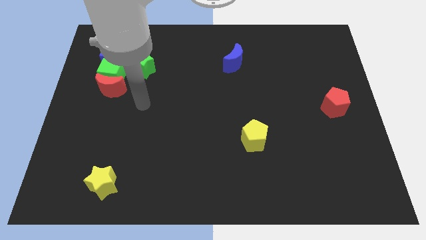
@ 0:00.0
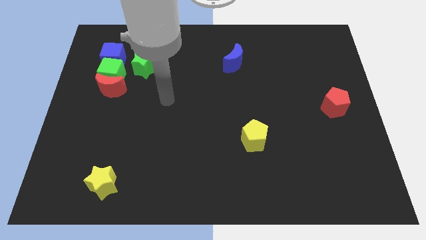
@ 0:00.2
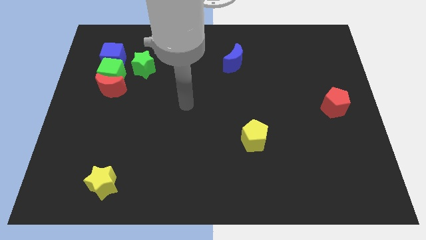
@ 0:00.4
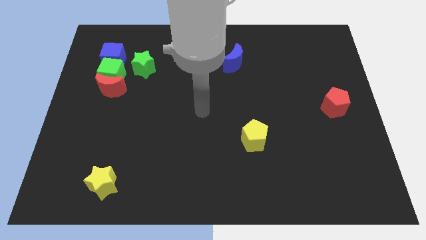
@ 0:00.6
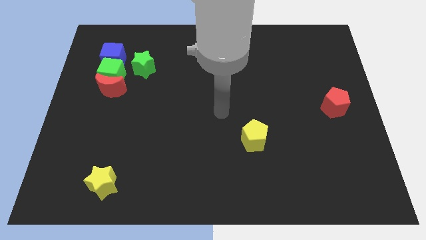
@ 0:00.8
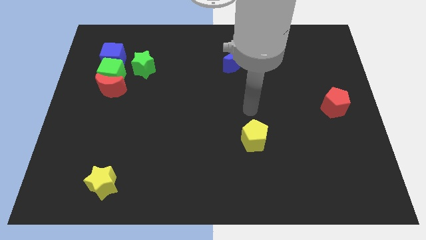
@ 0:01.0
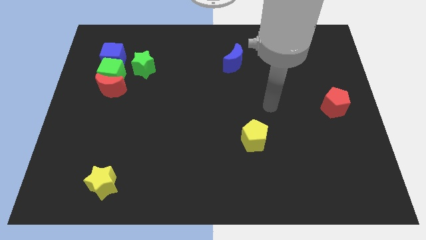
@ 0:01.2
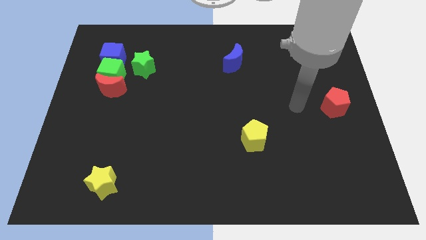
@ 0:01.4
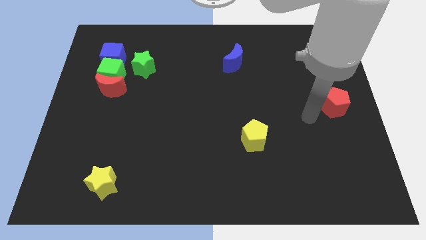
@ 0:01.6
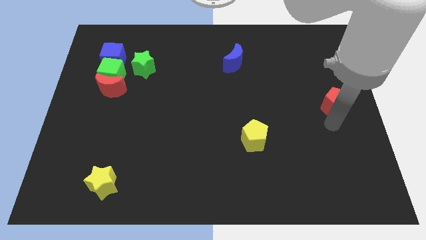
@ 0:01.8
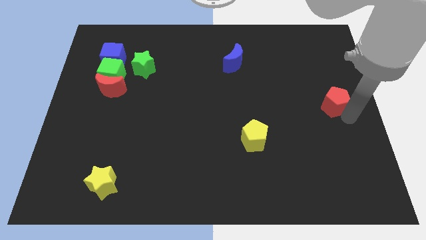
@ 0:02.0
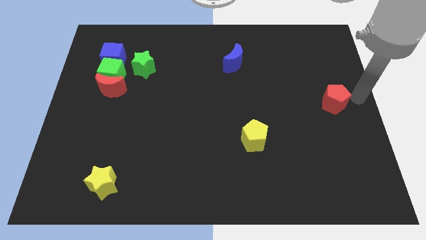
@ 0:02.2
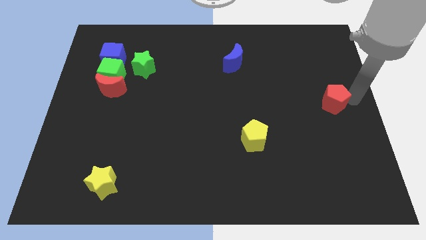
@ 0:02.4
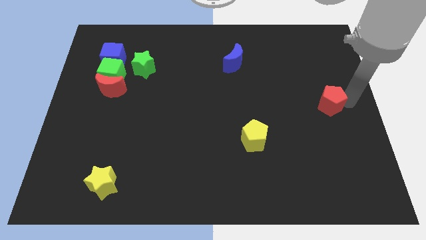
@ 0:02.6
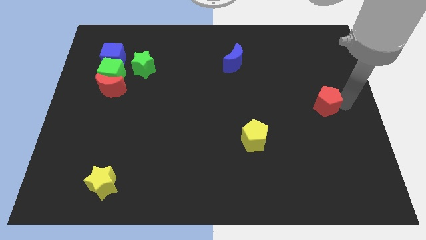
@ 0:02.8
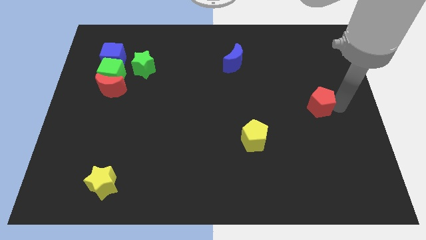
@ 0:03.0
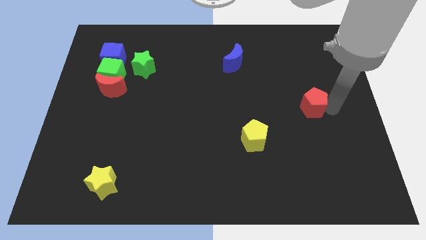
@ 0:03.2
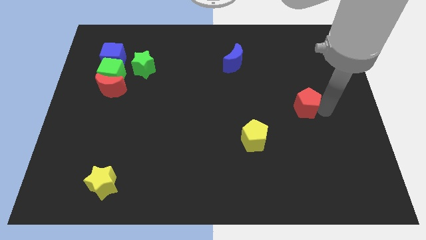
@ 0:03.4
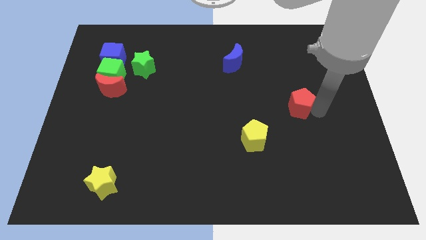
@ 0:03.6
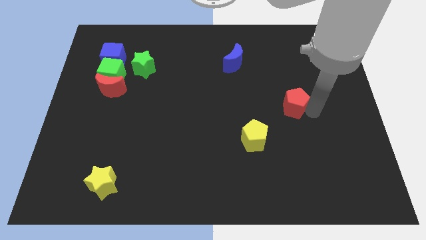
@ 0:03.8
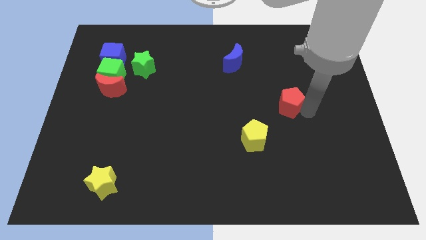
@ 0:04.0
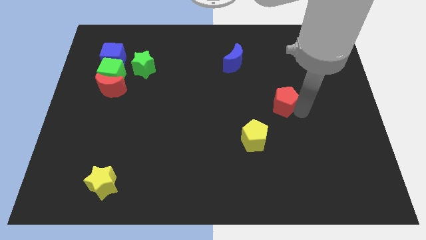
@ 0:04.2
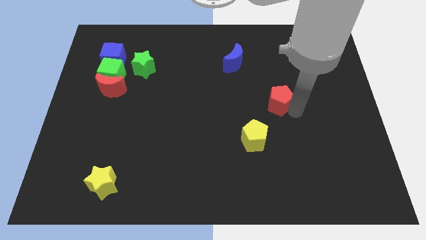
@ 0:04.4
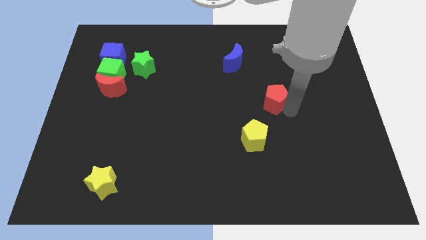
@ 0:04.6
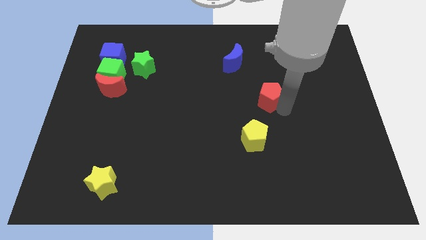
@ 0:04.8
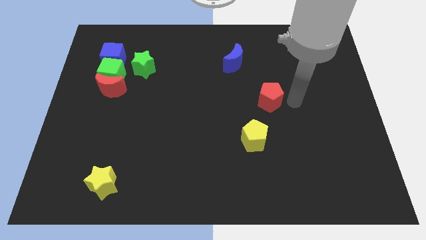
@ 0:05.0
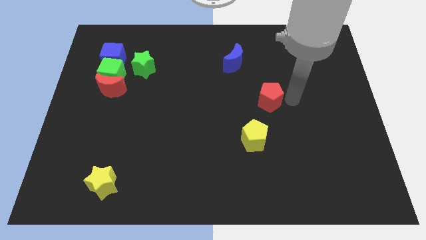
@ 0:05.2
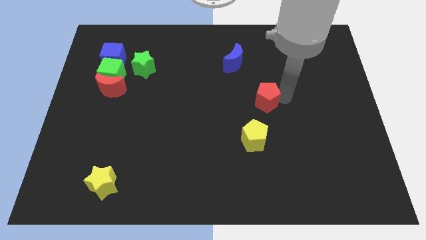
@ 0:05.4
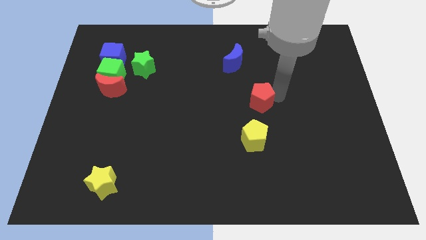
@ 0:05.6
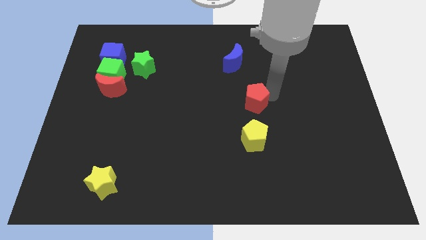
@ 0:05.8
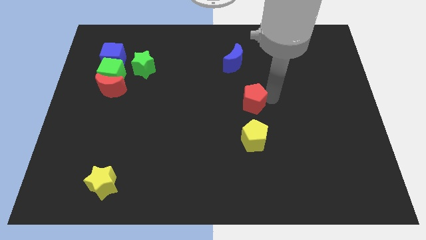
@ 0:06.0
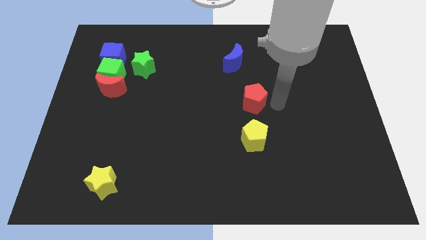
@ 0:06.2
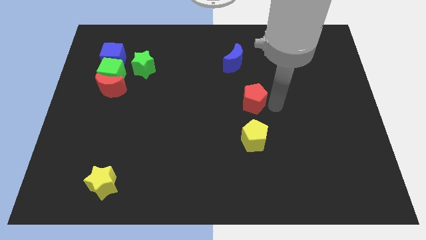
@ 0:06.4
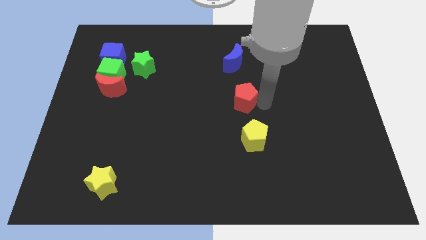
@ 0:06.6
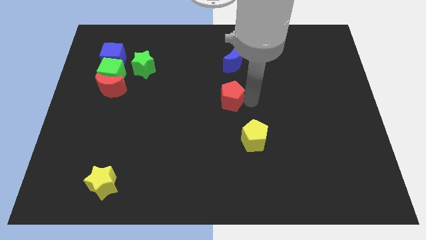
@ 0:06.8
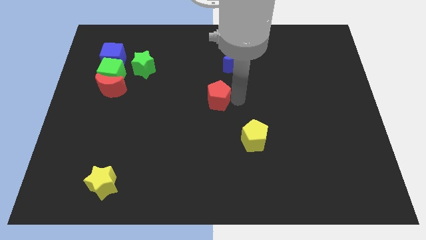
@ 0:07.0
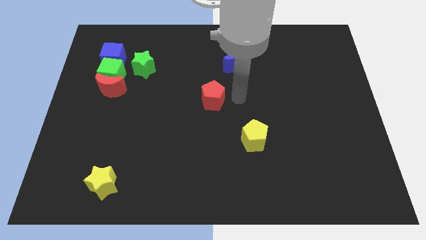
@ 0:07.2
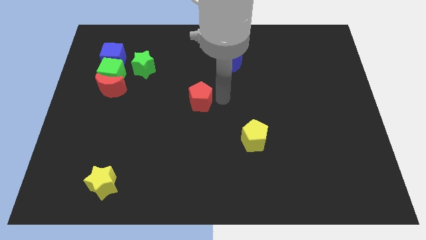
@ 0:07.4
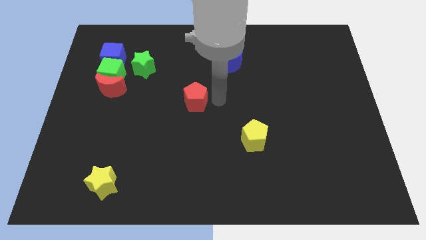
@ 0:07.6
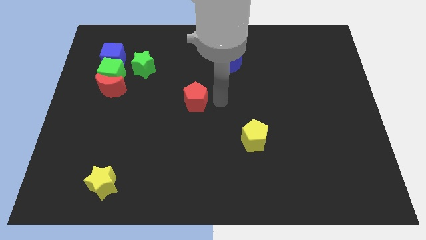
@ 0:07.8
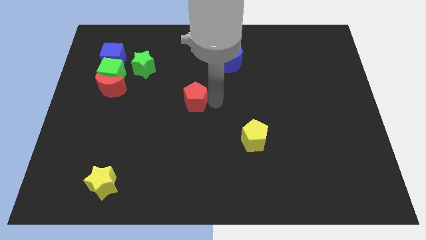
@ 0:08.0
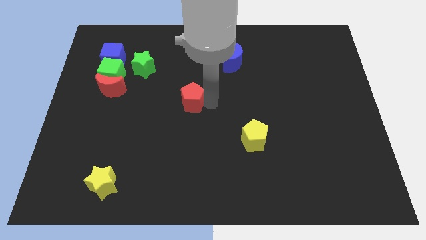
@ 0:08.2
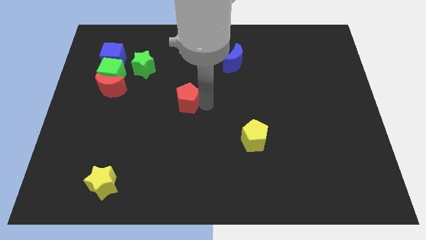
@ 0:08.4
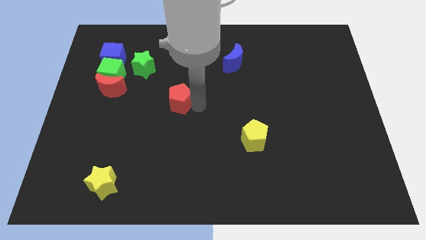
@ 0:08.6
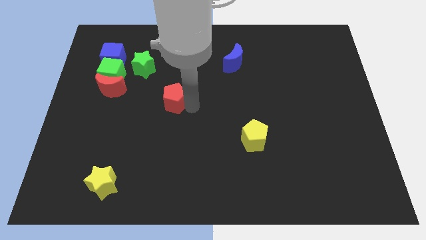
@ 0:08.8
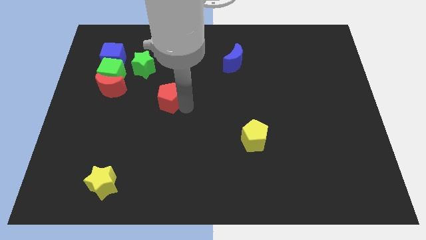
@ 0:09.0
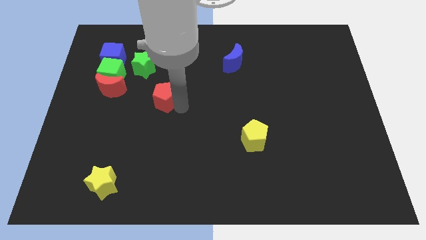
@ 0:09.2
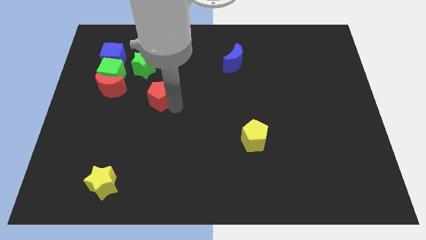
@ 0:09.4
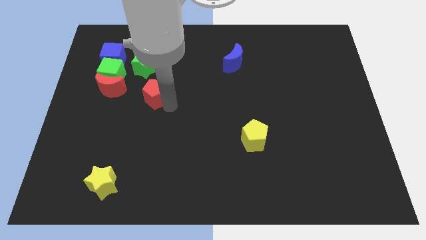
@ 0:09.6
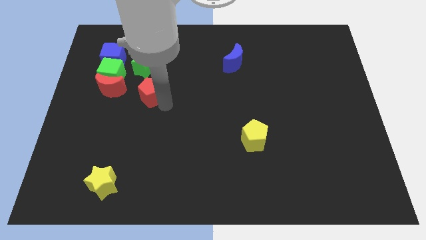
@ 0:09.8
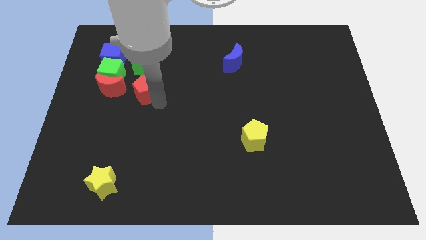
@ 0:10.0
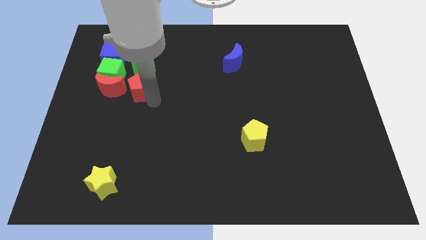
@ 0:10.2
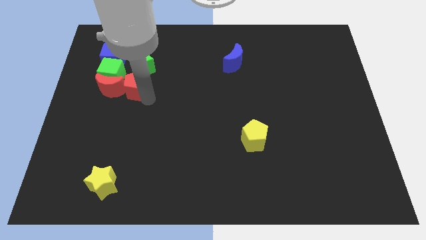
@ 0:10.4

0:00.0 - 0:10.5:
slide the red pentagon next to the red moon

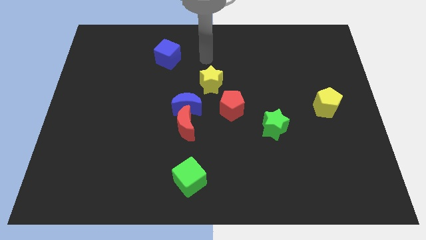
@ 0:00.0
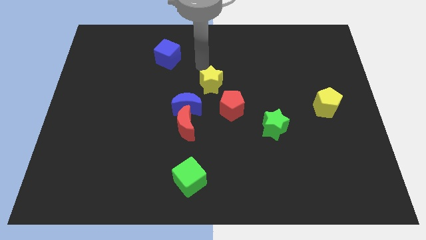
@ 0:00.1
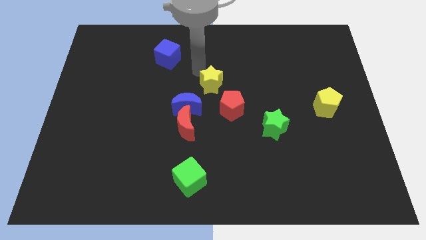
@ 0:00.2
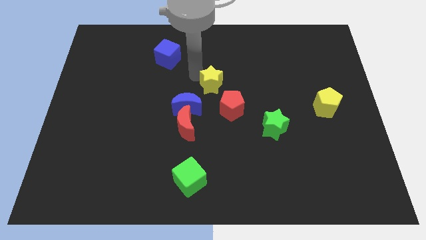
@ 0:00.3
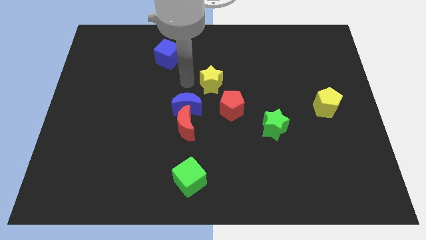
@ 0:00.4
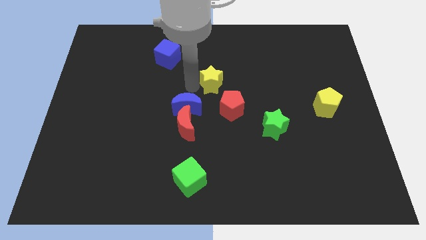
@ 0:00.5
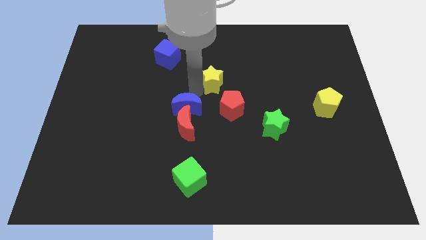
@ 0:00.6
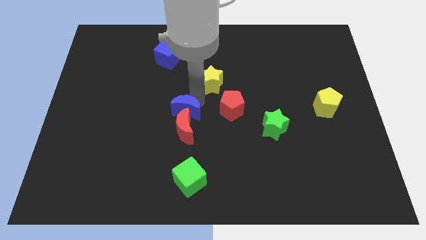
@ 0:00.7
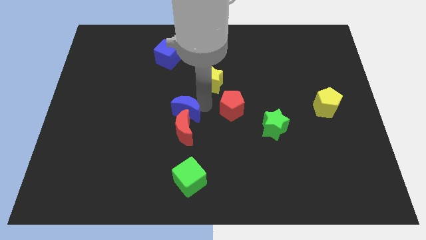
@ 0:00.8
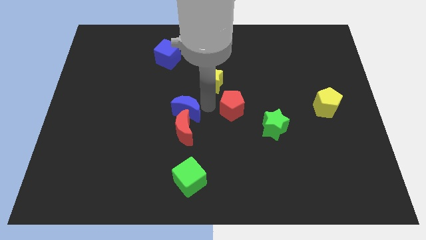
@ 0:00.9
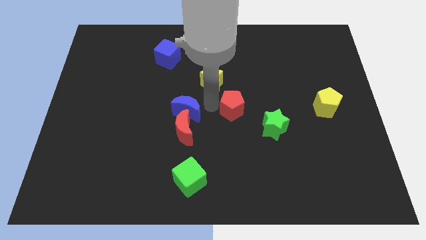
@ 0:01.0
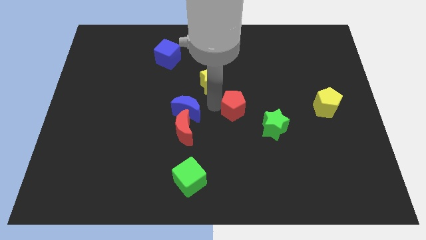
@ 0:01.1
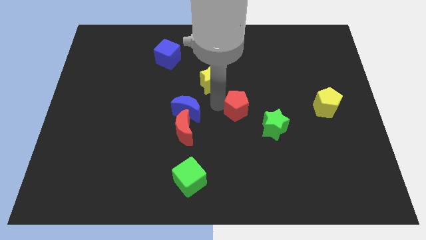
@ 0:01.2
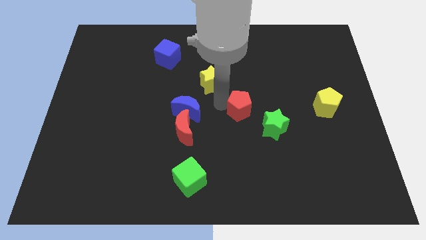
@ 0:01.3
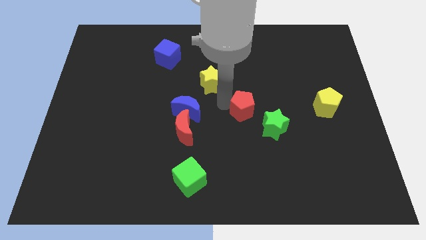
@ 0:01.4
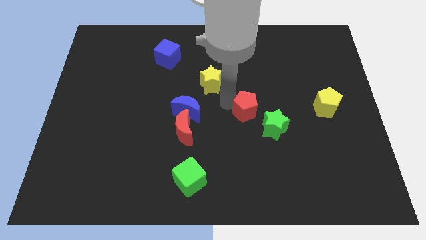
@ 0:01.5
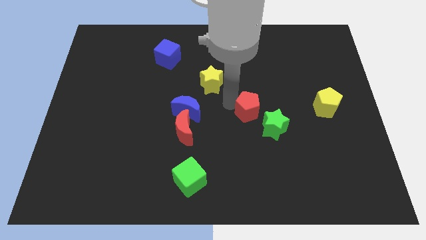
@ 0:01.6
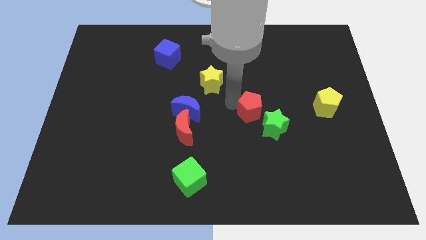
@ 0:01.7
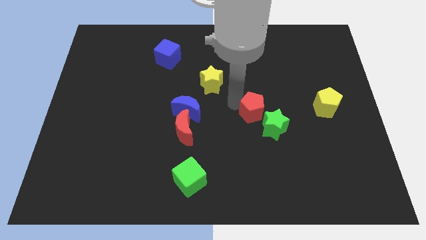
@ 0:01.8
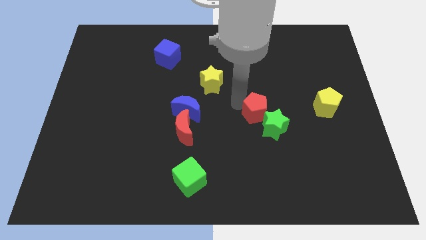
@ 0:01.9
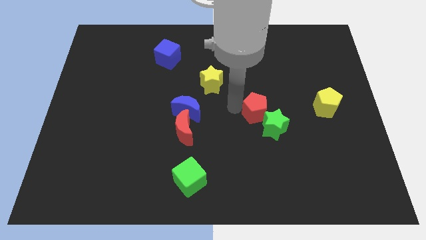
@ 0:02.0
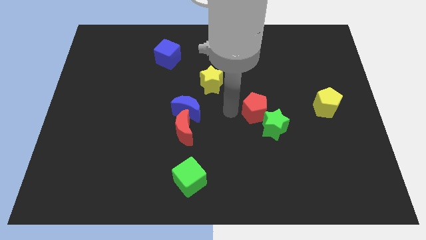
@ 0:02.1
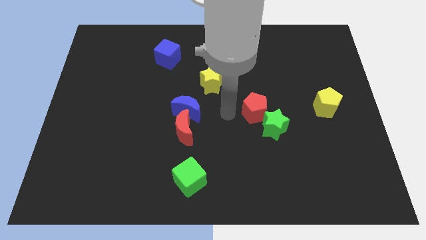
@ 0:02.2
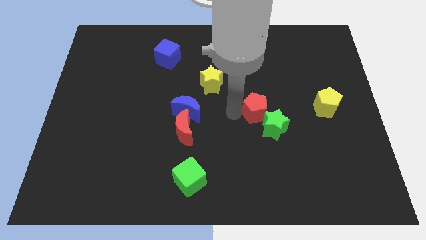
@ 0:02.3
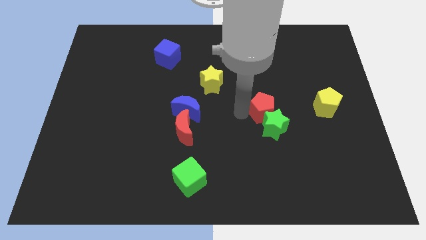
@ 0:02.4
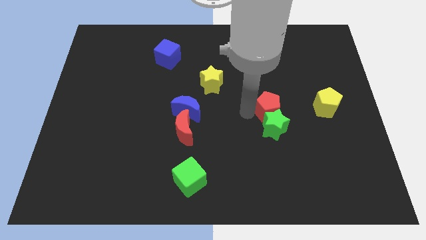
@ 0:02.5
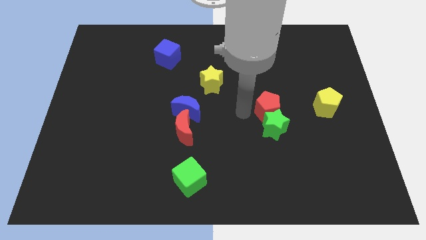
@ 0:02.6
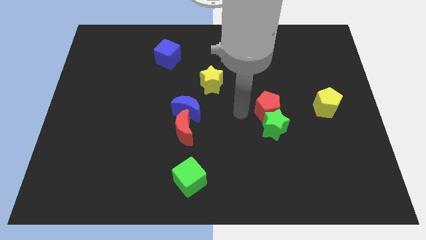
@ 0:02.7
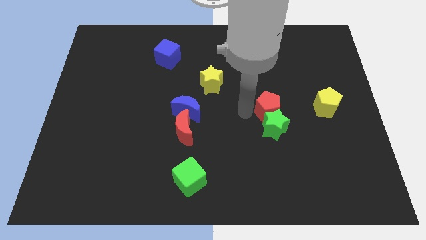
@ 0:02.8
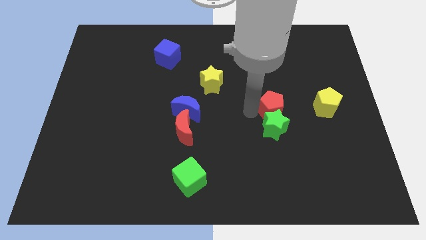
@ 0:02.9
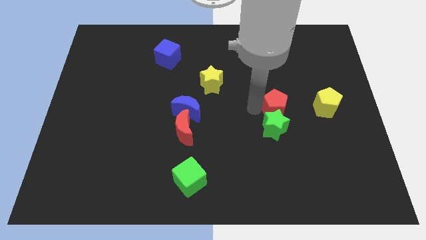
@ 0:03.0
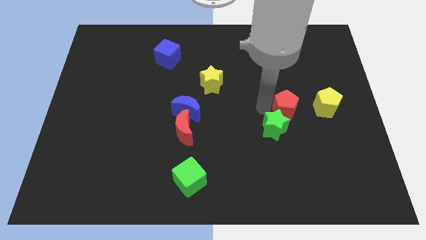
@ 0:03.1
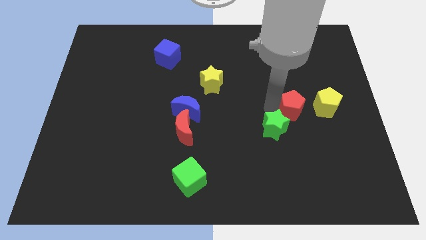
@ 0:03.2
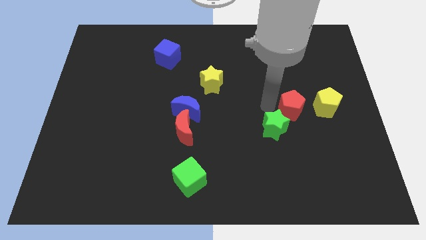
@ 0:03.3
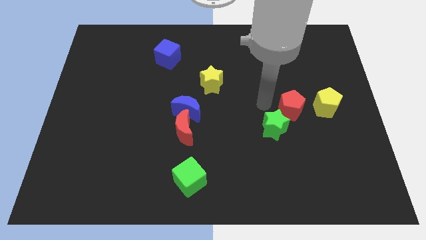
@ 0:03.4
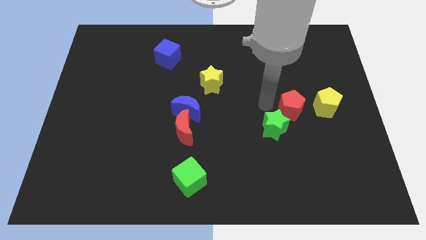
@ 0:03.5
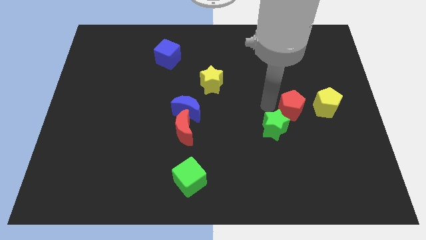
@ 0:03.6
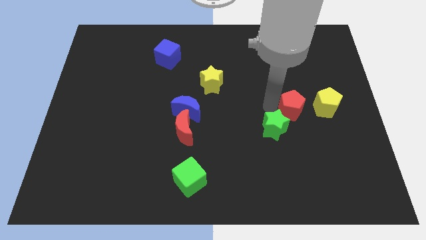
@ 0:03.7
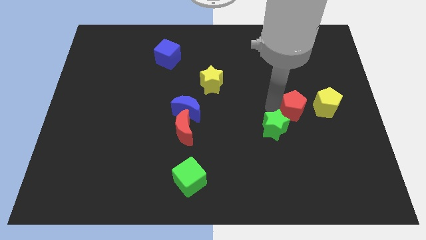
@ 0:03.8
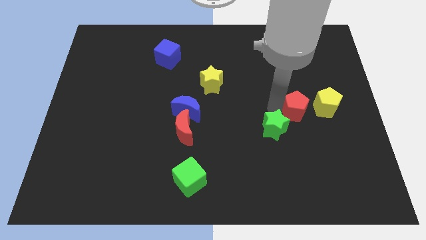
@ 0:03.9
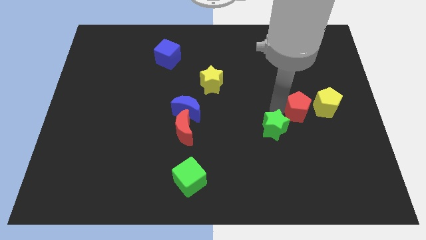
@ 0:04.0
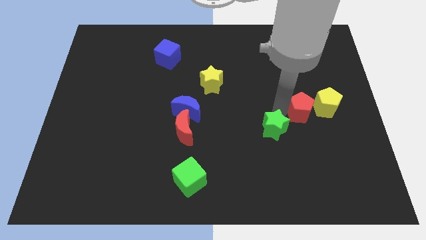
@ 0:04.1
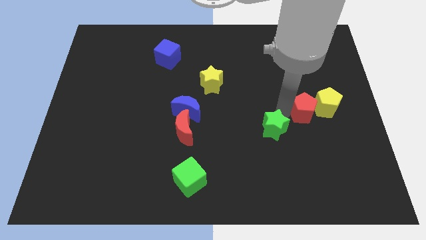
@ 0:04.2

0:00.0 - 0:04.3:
move the red pentagon next to the yellow pentagon
